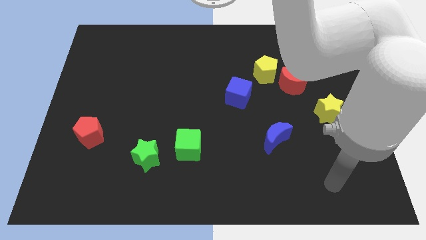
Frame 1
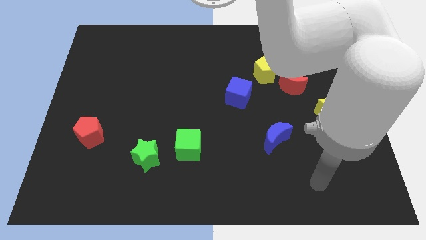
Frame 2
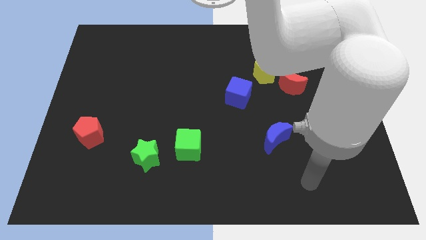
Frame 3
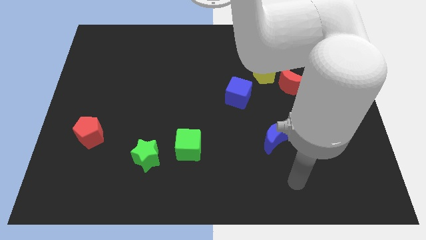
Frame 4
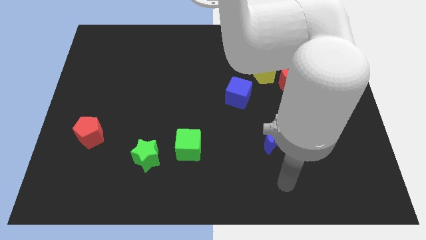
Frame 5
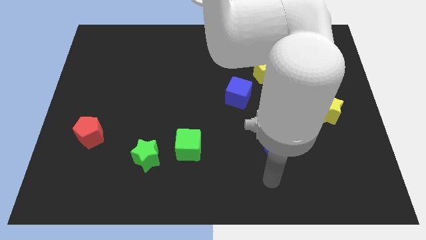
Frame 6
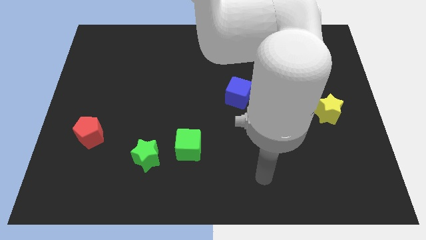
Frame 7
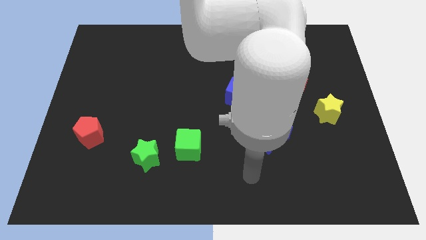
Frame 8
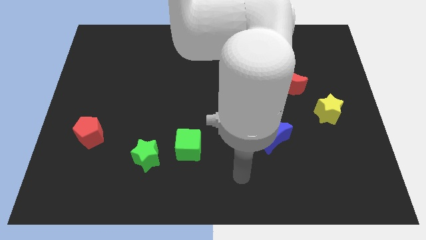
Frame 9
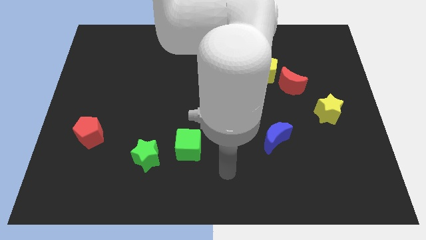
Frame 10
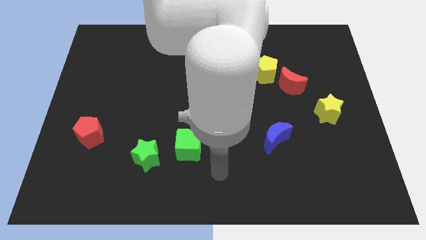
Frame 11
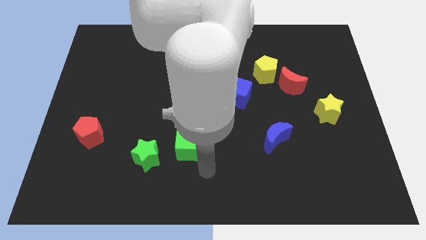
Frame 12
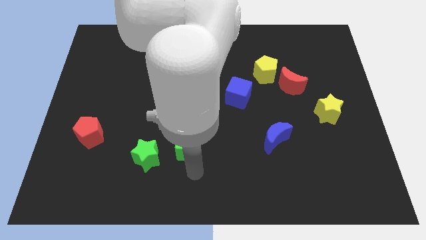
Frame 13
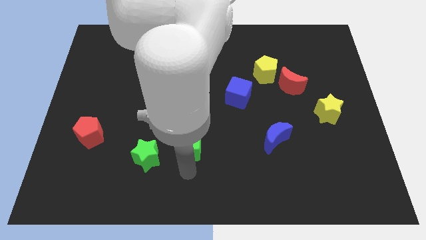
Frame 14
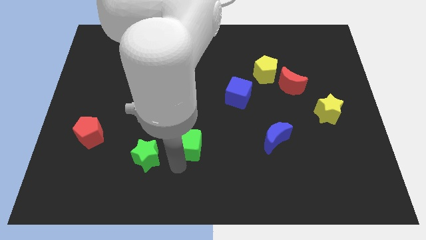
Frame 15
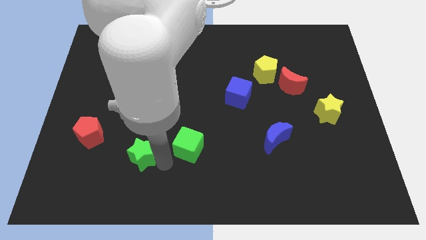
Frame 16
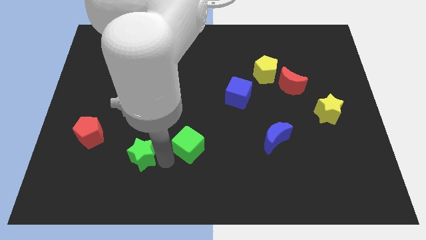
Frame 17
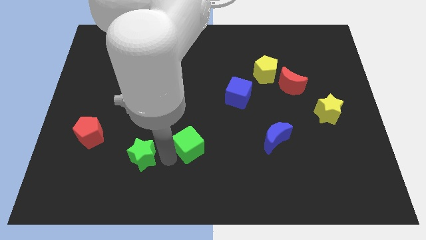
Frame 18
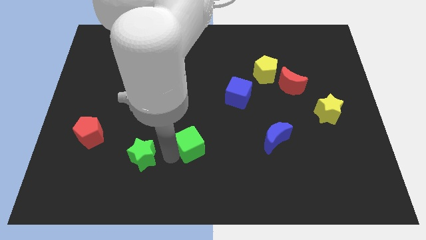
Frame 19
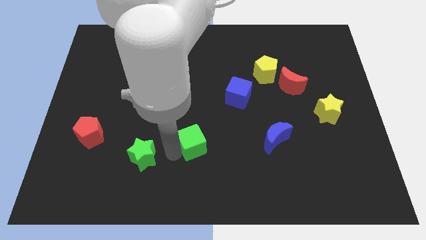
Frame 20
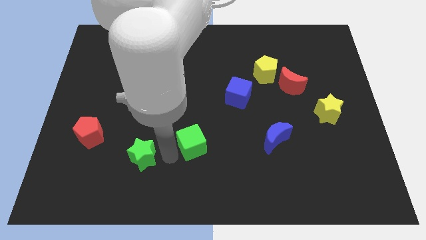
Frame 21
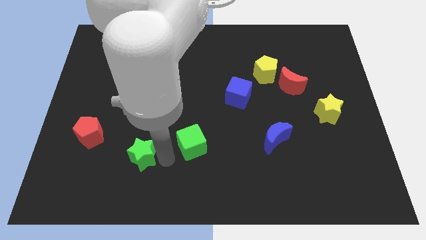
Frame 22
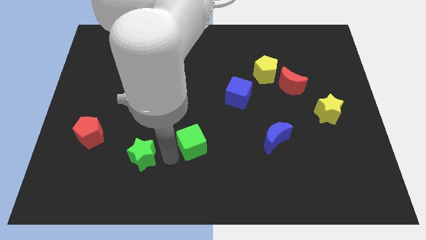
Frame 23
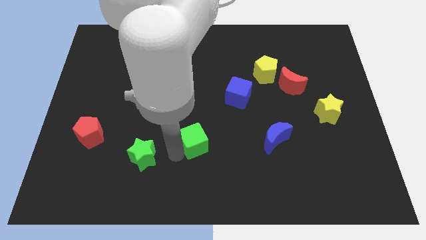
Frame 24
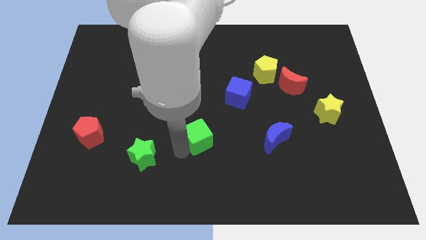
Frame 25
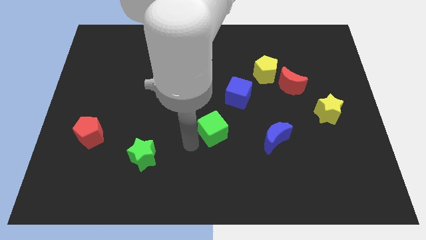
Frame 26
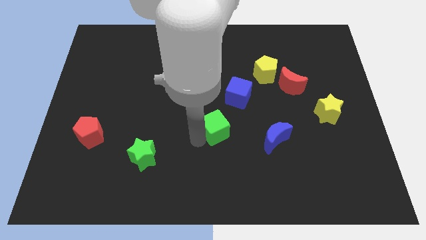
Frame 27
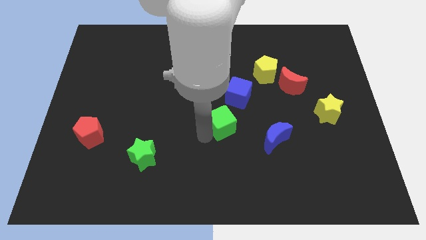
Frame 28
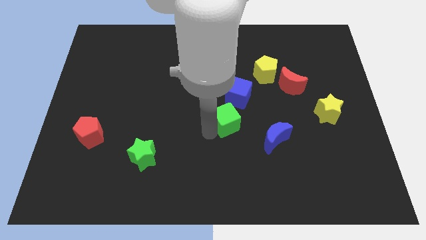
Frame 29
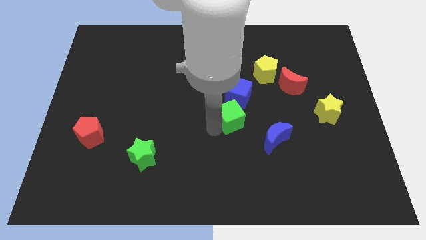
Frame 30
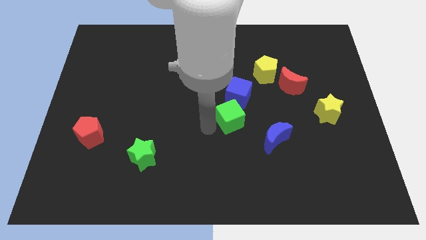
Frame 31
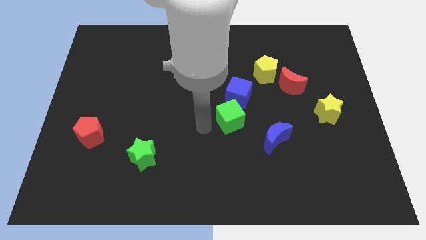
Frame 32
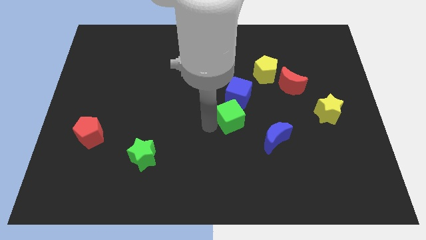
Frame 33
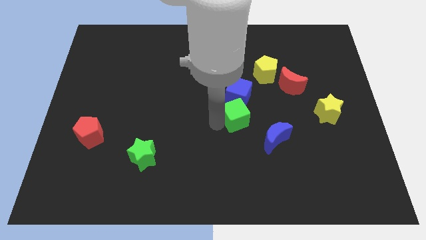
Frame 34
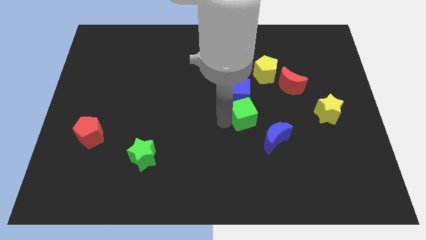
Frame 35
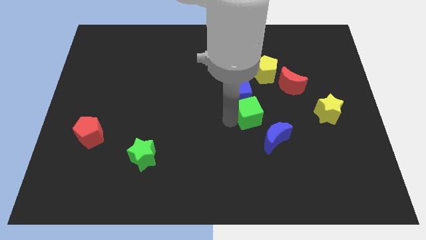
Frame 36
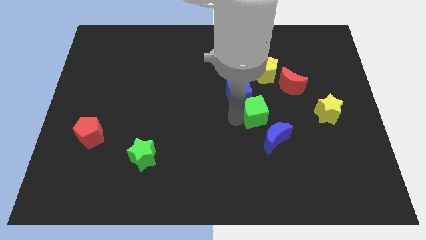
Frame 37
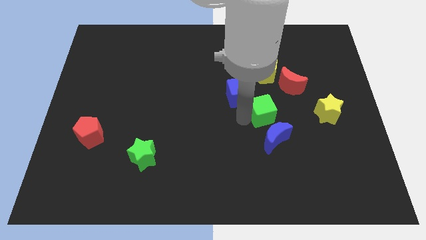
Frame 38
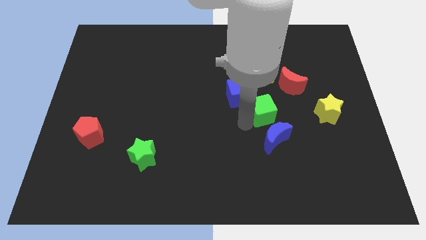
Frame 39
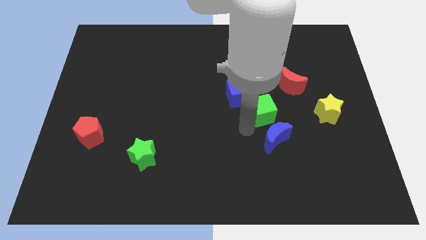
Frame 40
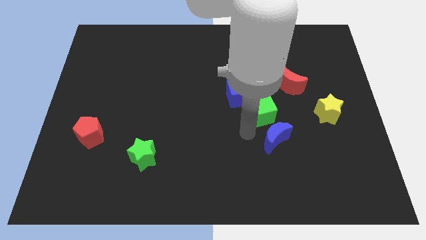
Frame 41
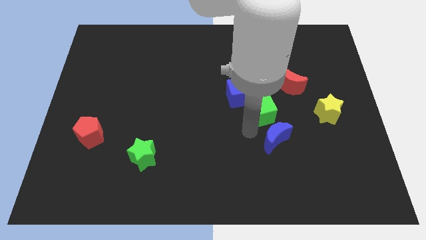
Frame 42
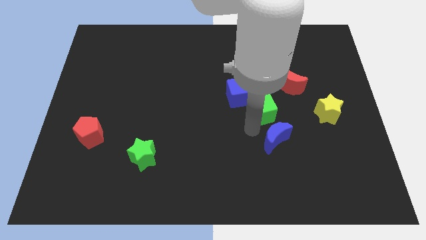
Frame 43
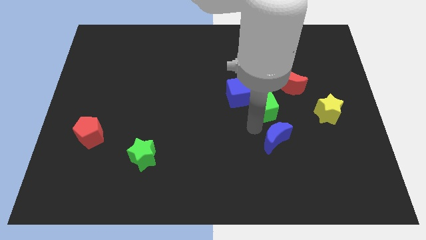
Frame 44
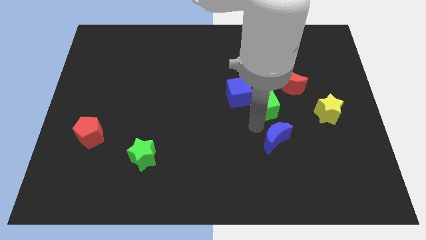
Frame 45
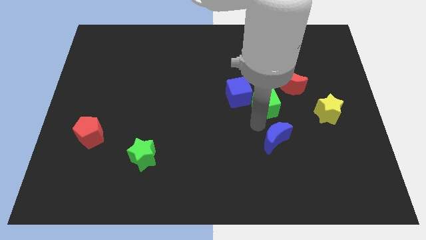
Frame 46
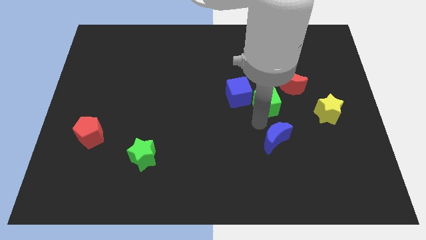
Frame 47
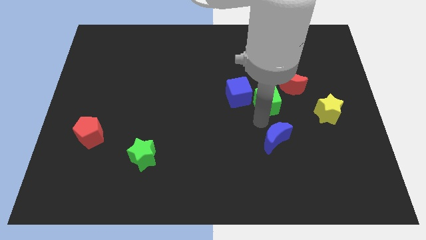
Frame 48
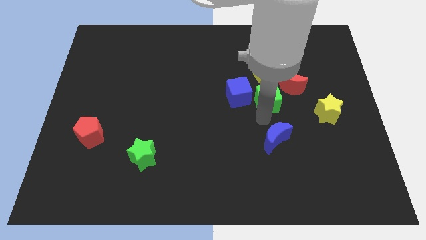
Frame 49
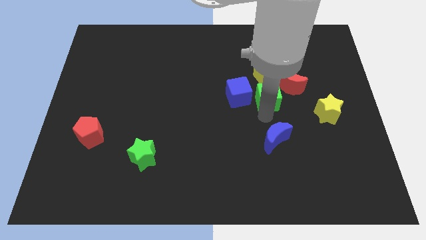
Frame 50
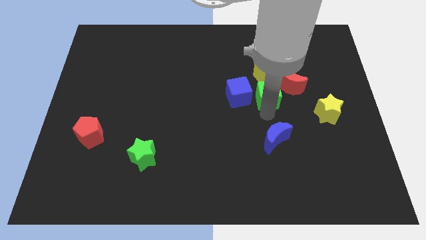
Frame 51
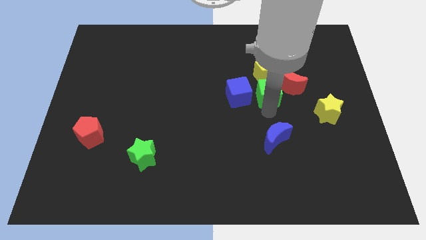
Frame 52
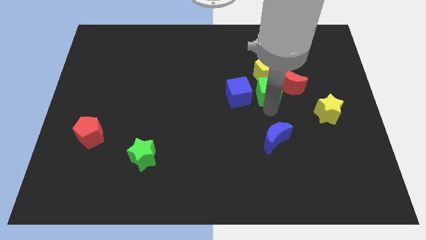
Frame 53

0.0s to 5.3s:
push the green cube close to the red moon

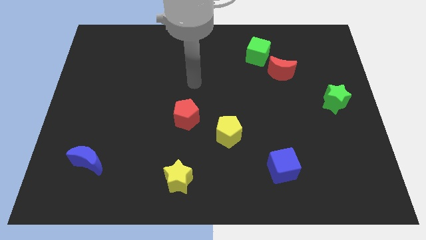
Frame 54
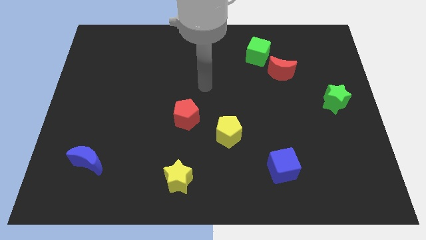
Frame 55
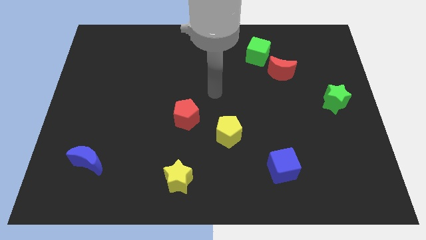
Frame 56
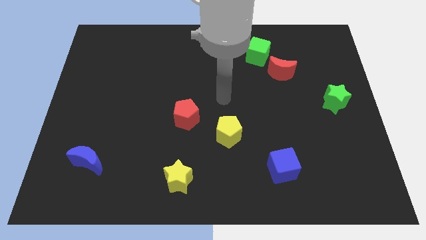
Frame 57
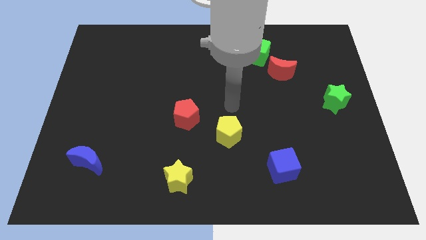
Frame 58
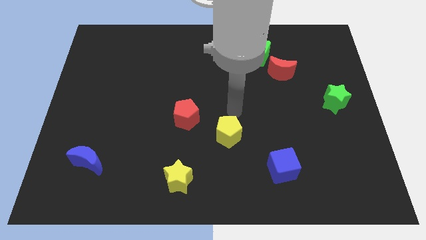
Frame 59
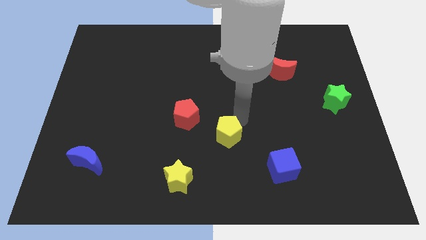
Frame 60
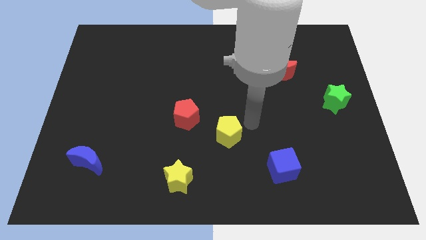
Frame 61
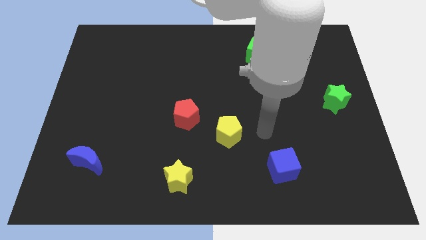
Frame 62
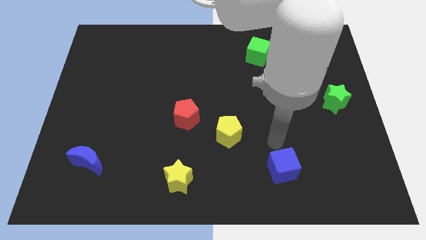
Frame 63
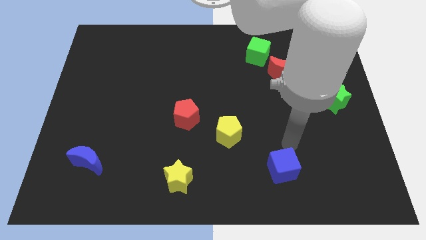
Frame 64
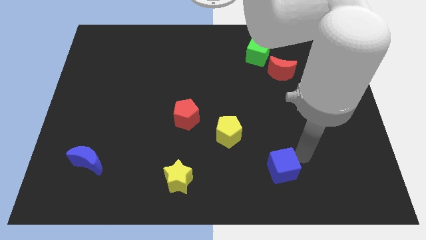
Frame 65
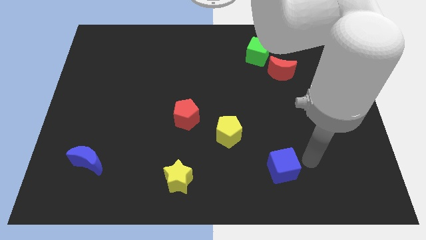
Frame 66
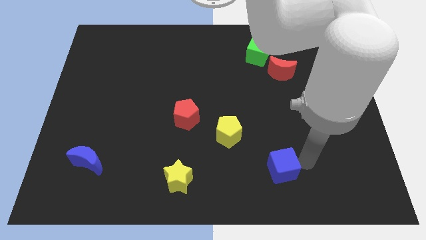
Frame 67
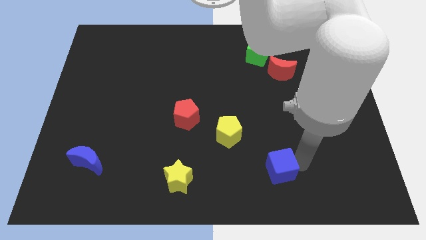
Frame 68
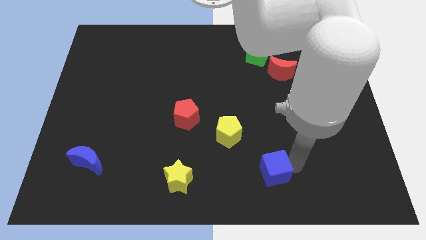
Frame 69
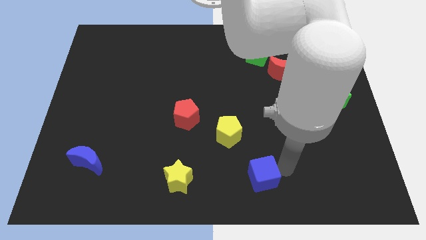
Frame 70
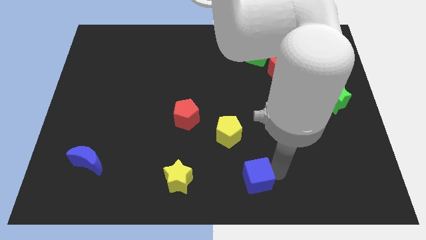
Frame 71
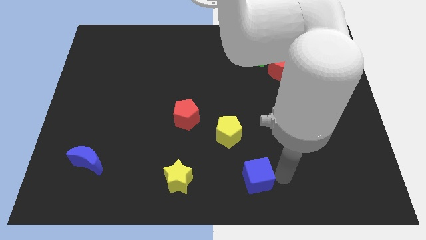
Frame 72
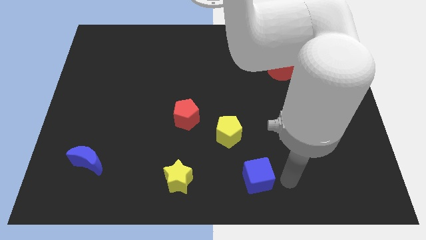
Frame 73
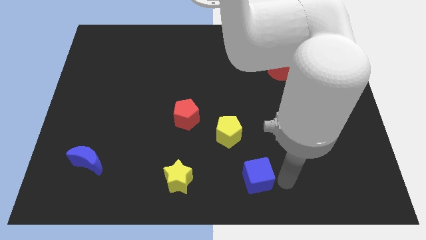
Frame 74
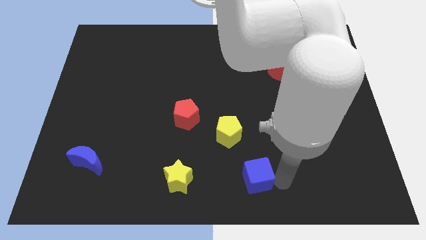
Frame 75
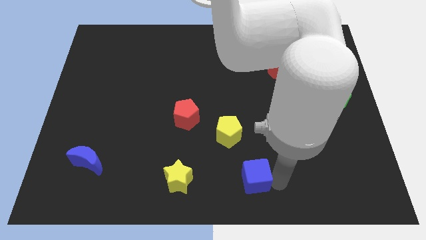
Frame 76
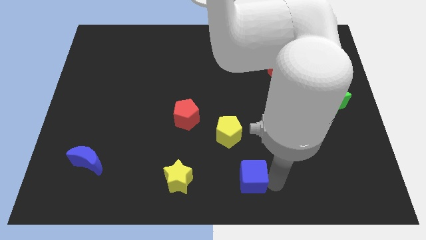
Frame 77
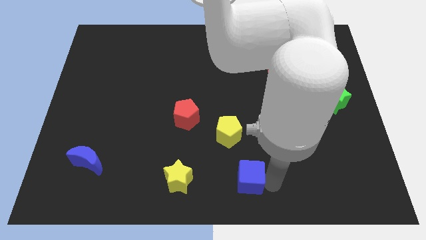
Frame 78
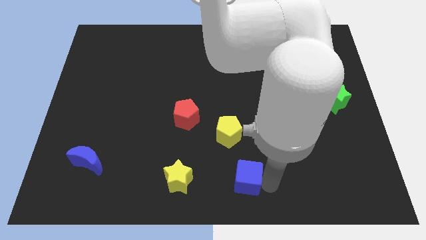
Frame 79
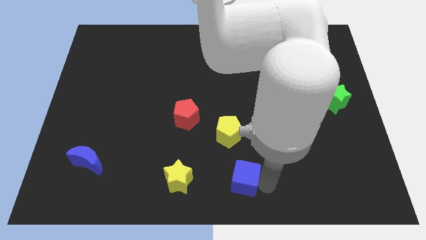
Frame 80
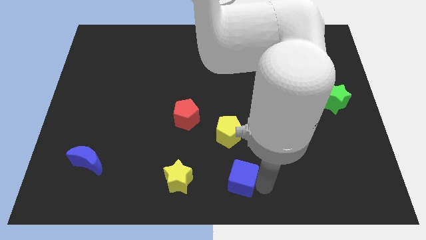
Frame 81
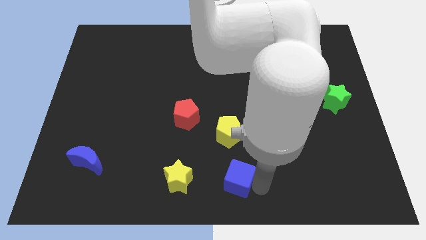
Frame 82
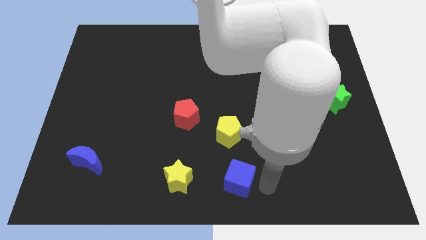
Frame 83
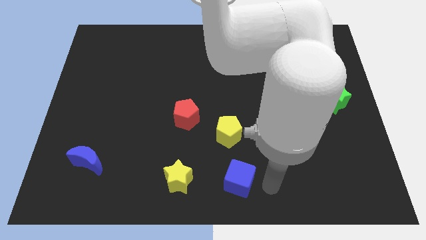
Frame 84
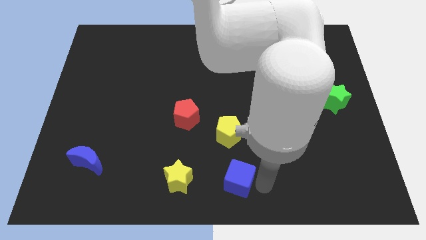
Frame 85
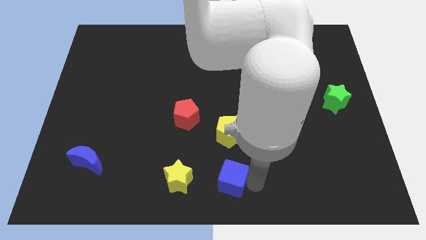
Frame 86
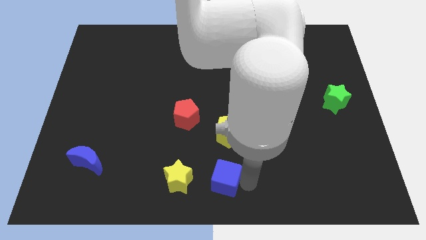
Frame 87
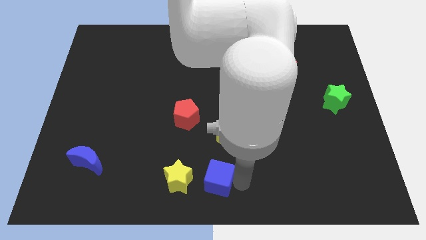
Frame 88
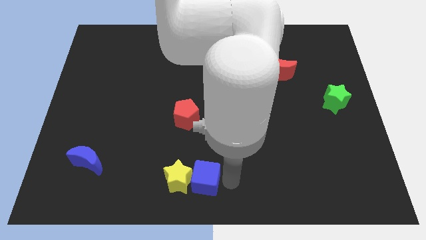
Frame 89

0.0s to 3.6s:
put the blue cube towards the yellow star
